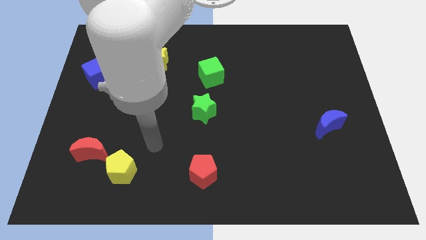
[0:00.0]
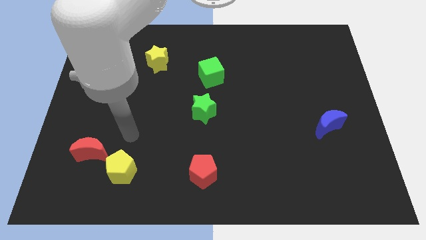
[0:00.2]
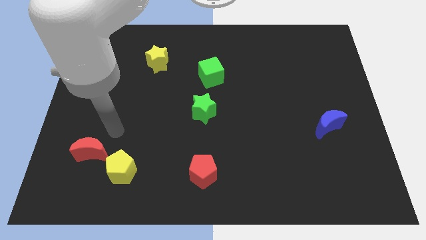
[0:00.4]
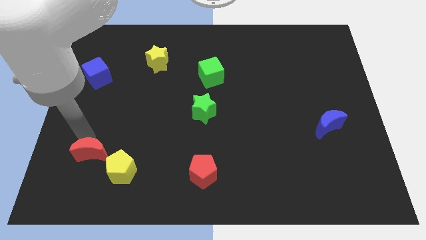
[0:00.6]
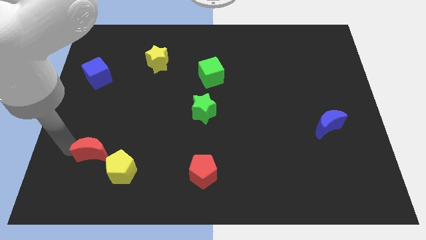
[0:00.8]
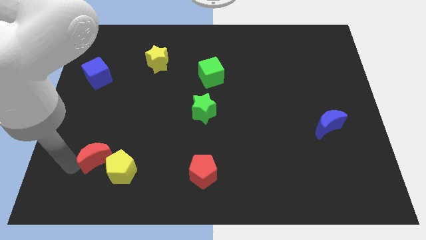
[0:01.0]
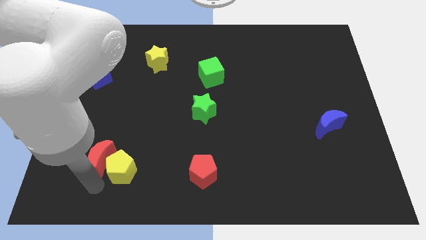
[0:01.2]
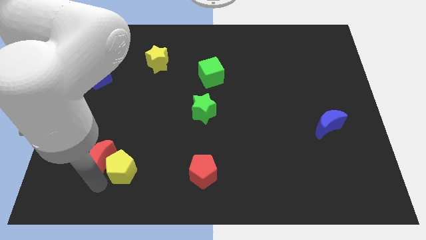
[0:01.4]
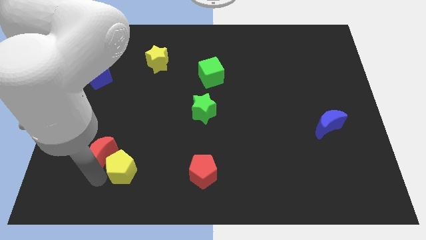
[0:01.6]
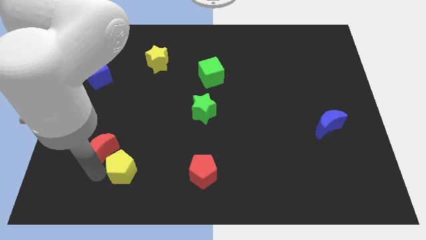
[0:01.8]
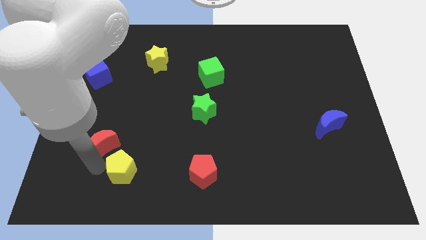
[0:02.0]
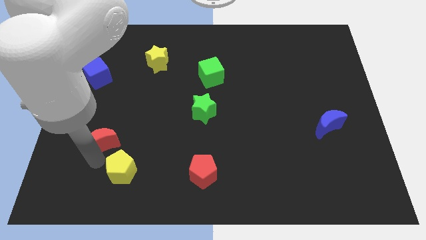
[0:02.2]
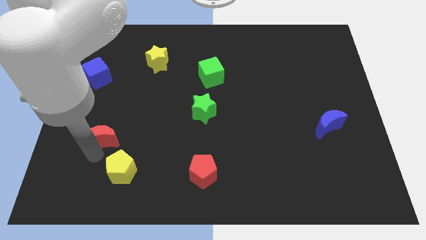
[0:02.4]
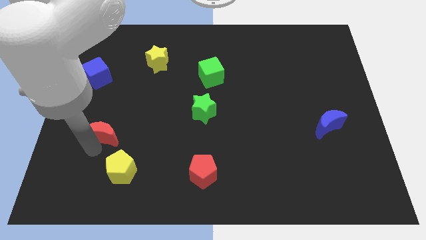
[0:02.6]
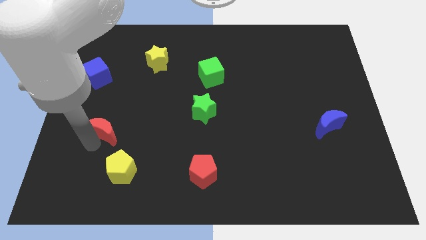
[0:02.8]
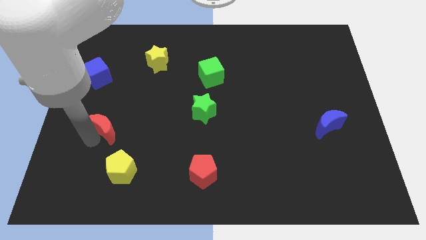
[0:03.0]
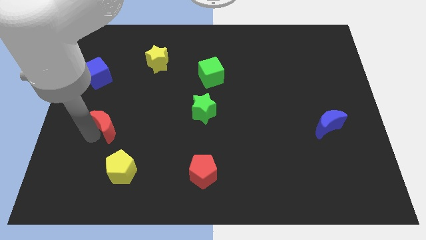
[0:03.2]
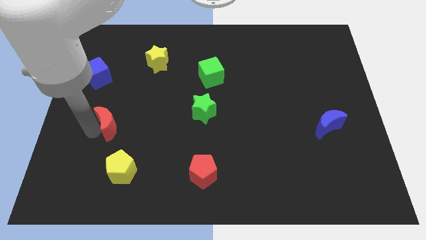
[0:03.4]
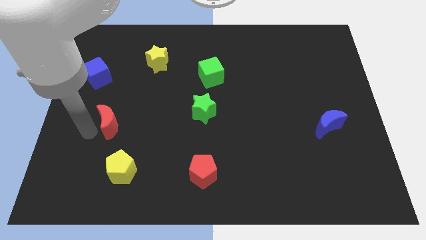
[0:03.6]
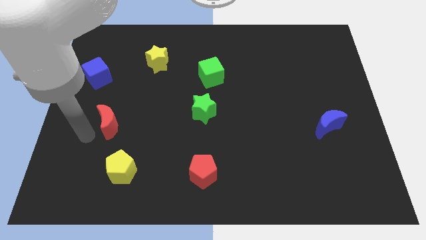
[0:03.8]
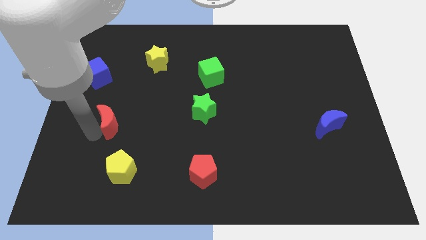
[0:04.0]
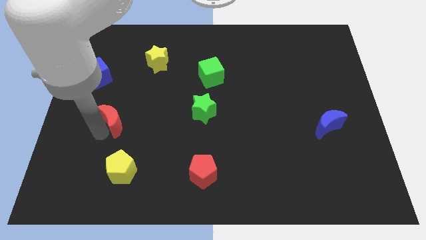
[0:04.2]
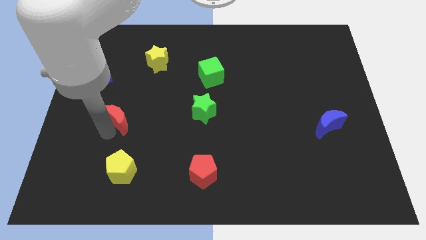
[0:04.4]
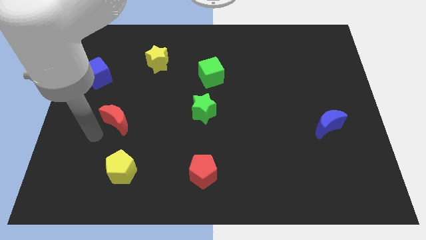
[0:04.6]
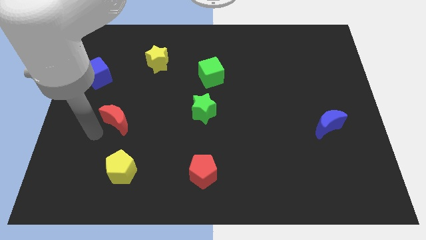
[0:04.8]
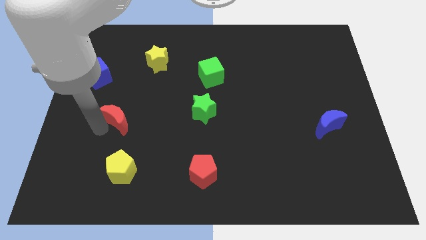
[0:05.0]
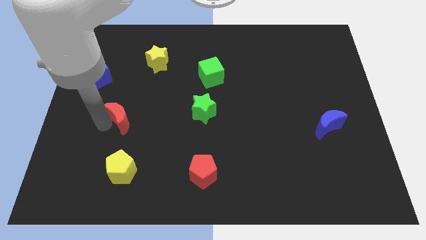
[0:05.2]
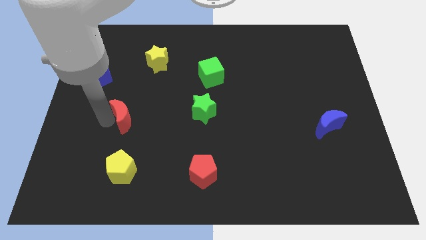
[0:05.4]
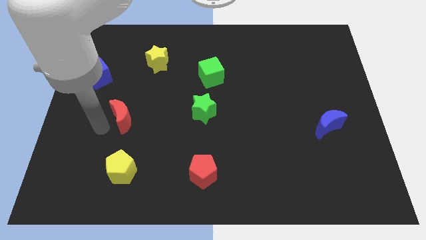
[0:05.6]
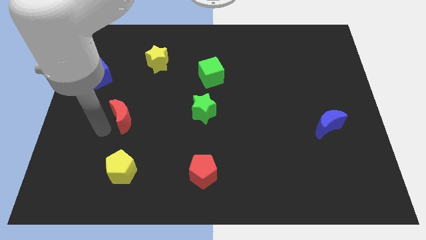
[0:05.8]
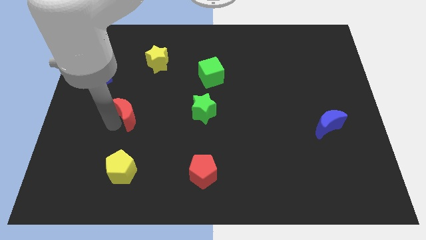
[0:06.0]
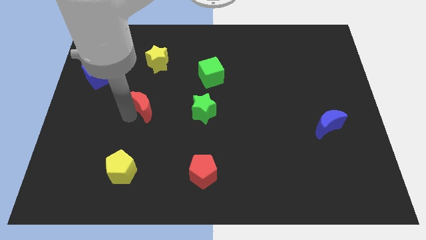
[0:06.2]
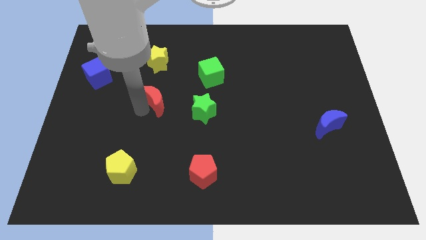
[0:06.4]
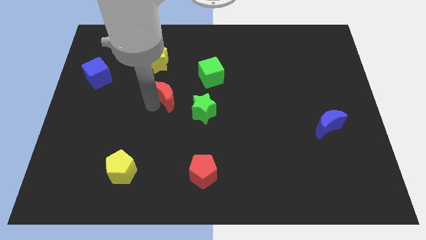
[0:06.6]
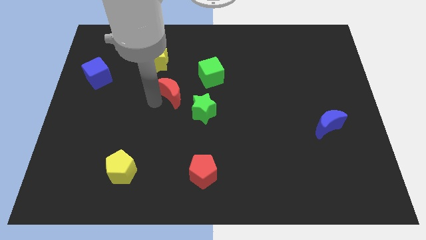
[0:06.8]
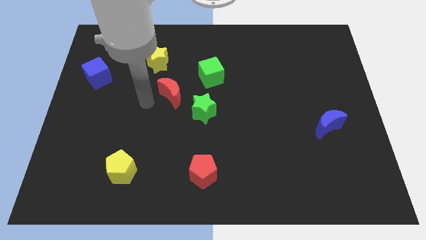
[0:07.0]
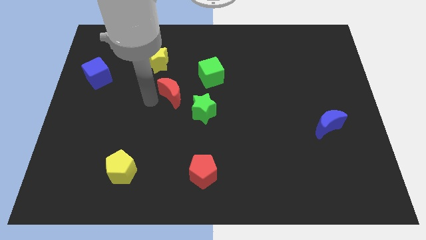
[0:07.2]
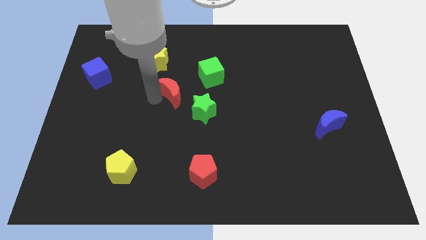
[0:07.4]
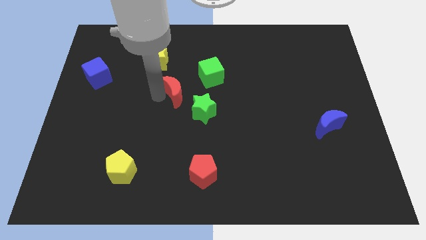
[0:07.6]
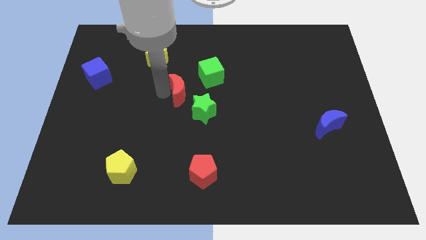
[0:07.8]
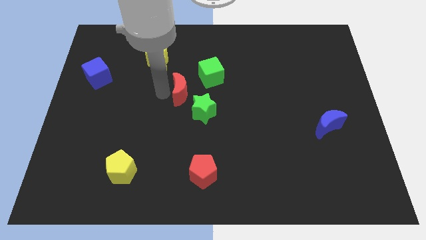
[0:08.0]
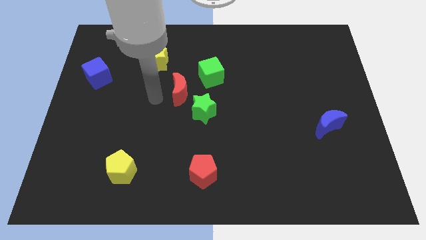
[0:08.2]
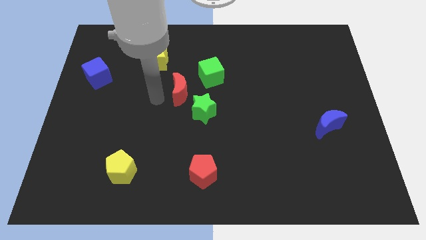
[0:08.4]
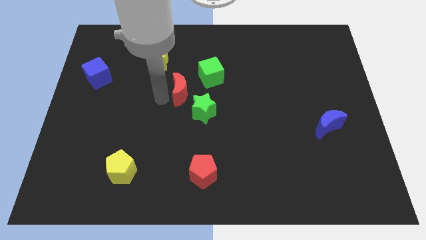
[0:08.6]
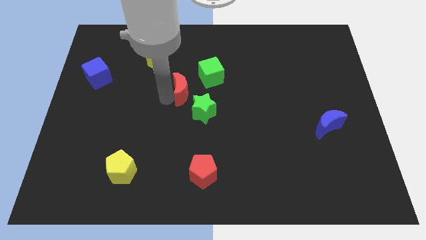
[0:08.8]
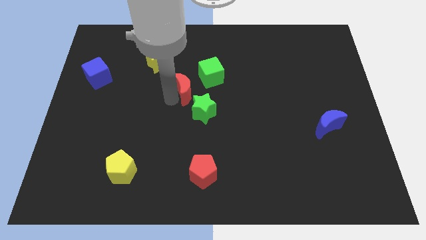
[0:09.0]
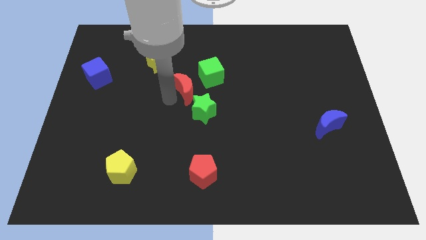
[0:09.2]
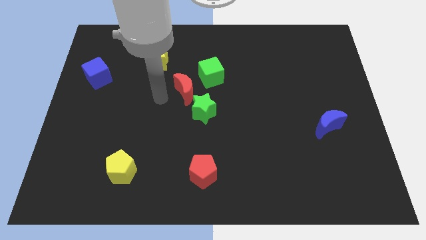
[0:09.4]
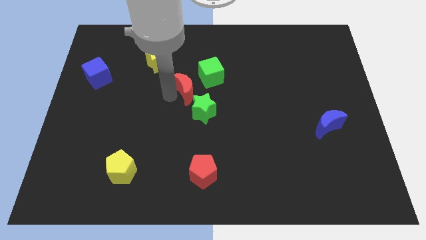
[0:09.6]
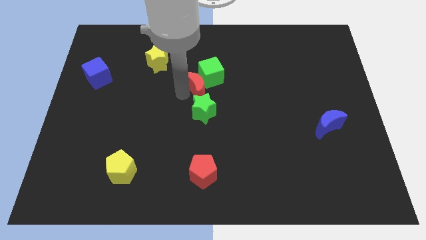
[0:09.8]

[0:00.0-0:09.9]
move the red moon close to the green cube

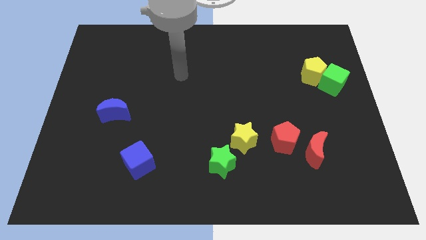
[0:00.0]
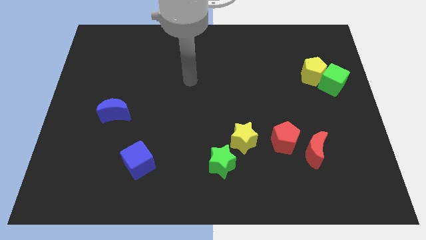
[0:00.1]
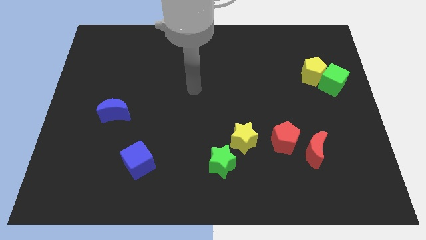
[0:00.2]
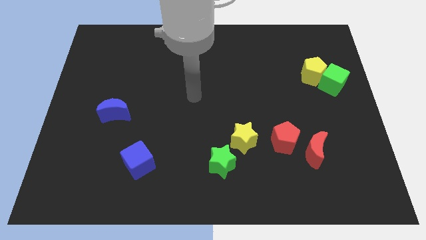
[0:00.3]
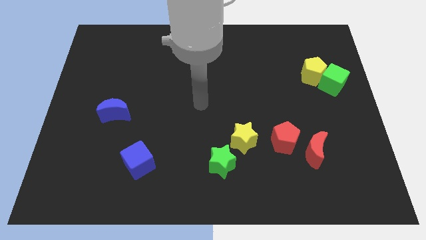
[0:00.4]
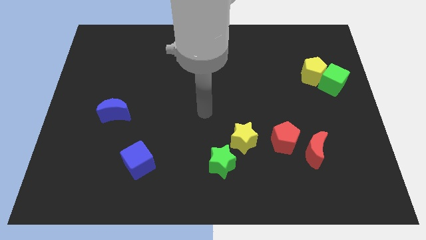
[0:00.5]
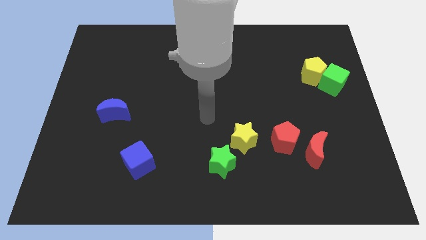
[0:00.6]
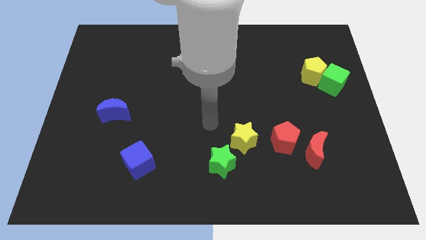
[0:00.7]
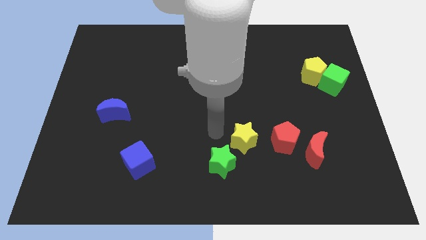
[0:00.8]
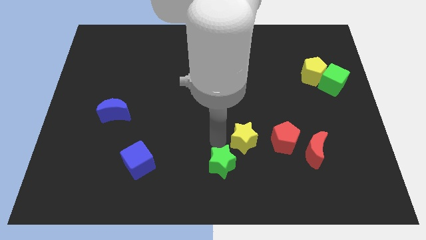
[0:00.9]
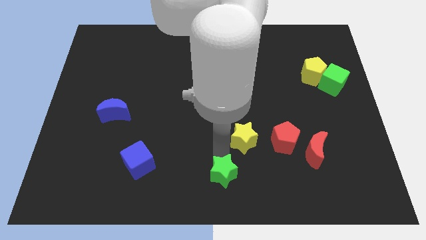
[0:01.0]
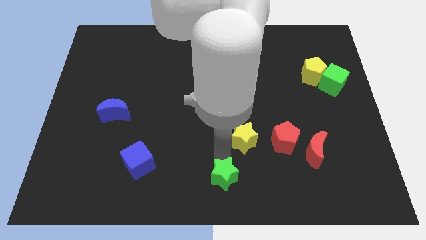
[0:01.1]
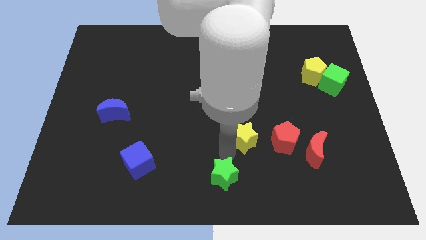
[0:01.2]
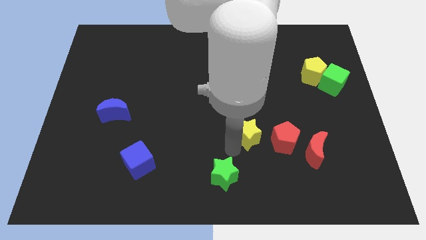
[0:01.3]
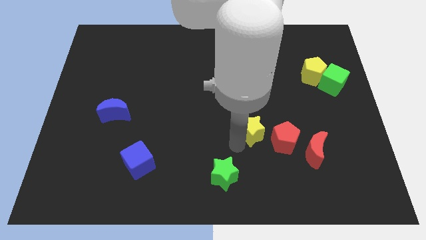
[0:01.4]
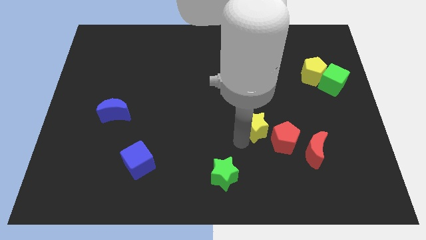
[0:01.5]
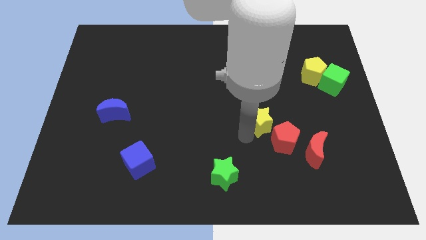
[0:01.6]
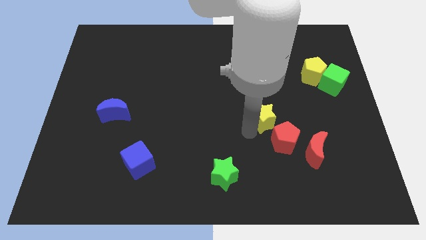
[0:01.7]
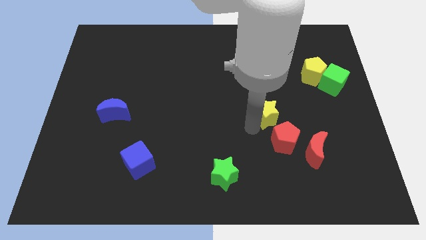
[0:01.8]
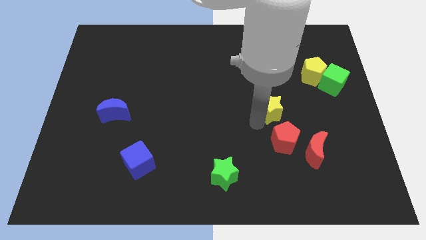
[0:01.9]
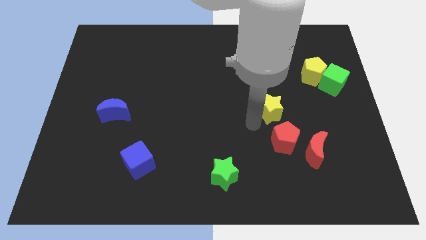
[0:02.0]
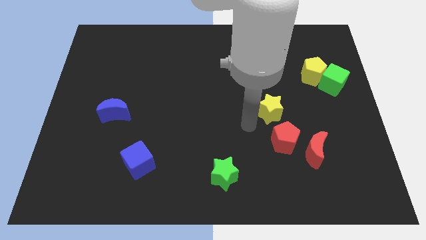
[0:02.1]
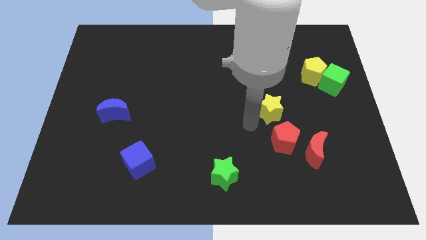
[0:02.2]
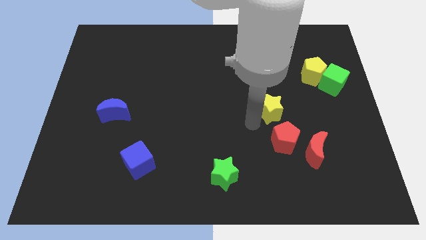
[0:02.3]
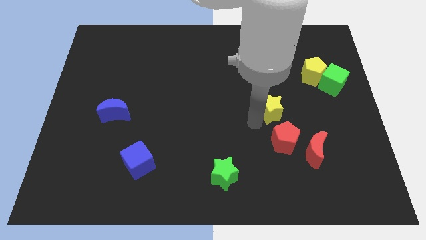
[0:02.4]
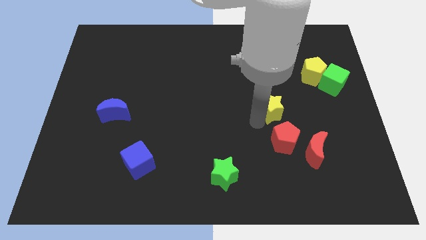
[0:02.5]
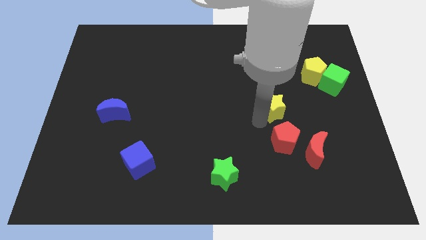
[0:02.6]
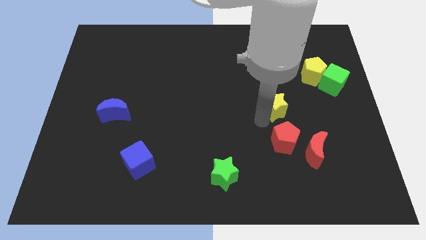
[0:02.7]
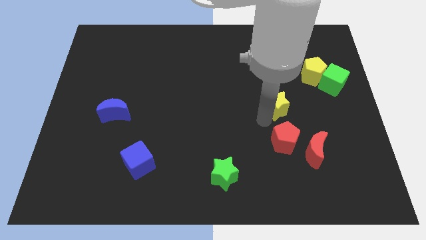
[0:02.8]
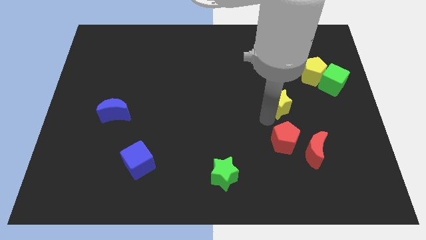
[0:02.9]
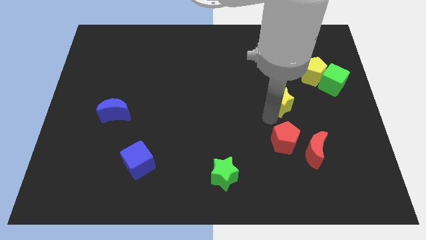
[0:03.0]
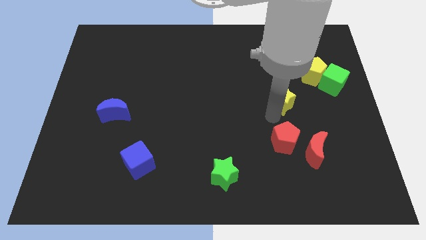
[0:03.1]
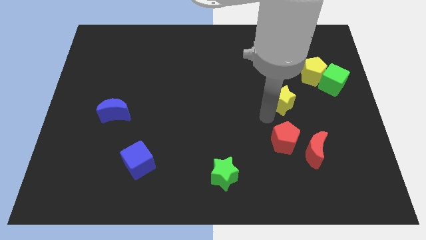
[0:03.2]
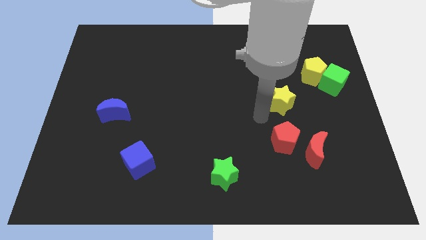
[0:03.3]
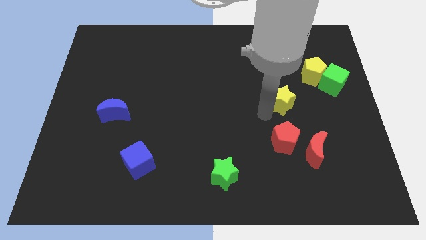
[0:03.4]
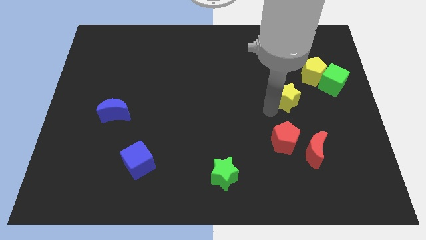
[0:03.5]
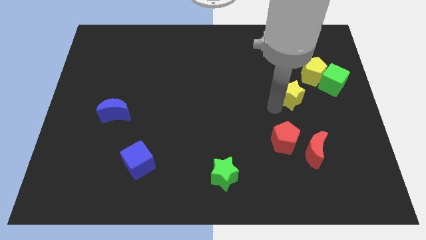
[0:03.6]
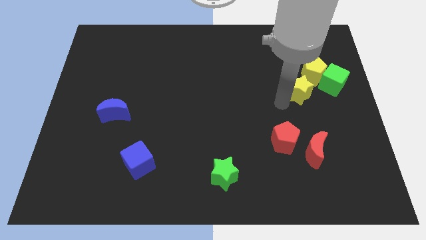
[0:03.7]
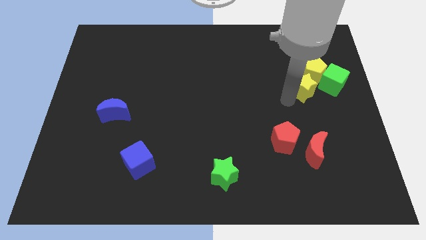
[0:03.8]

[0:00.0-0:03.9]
slide the yellow star to the yellow pentagon
